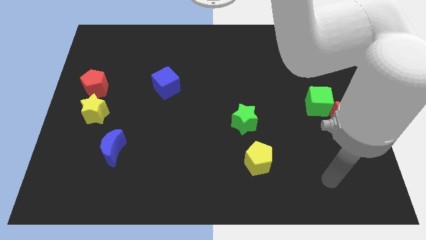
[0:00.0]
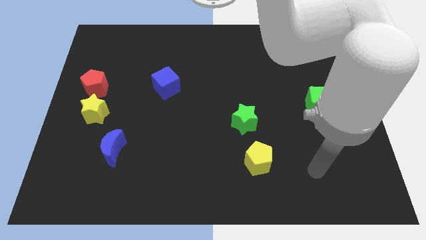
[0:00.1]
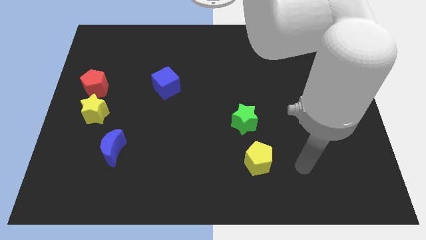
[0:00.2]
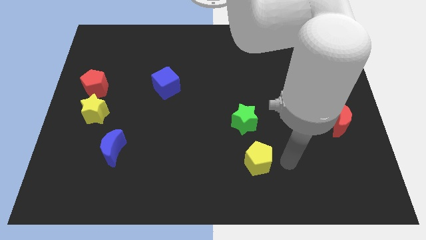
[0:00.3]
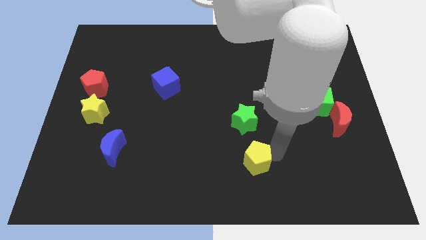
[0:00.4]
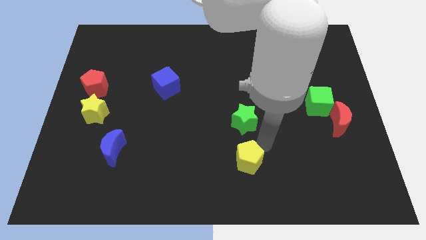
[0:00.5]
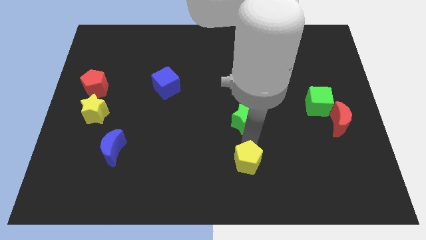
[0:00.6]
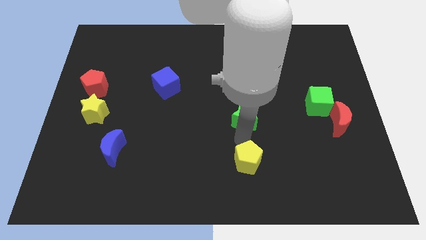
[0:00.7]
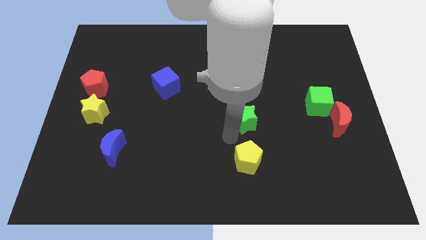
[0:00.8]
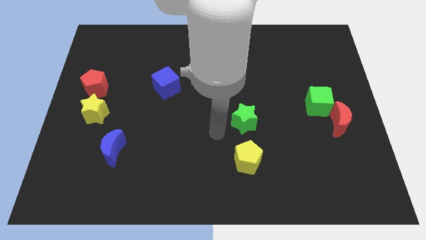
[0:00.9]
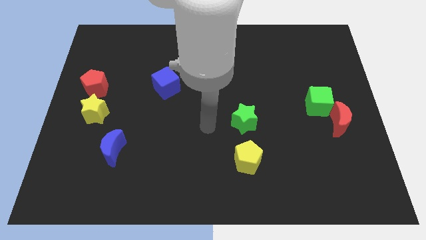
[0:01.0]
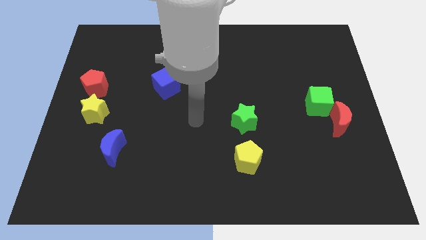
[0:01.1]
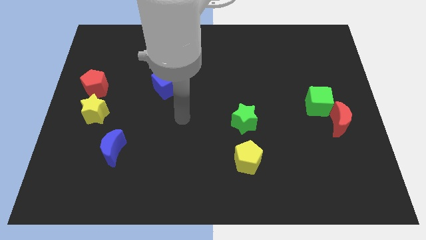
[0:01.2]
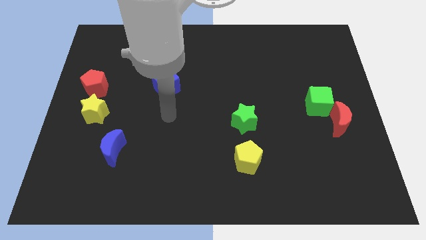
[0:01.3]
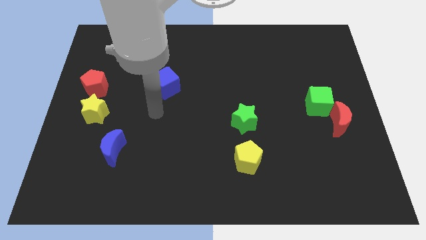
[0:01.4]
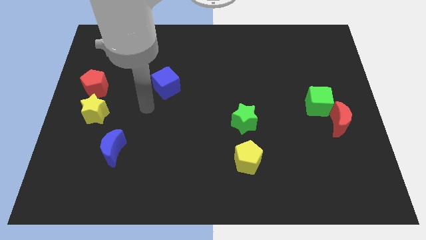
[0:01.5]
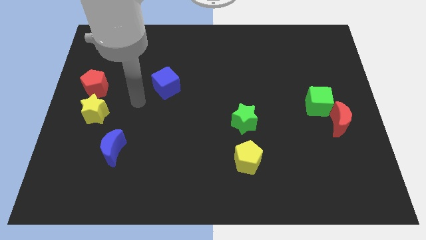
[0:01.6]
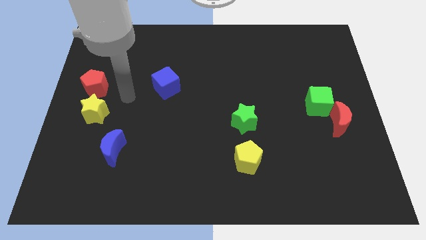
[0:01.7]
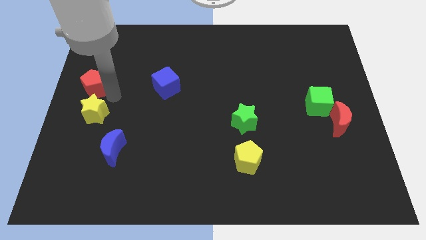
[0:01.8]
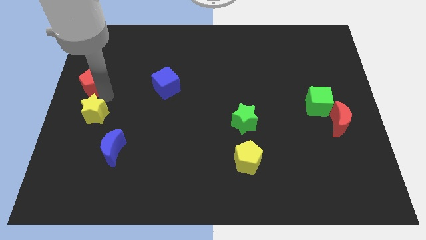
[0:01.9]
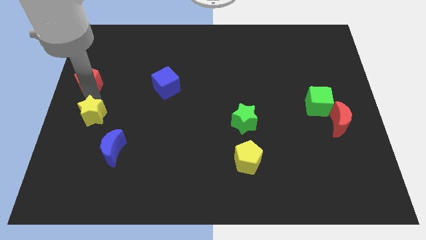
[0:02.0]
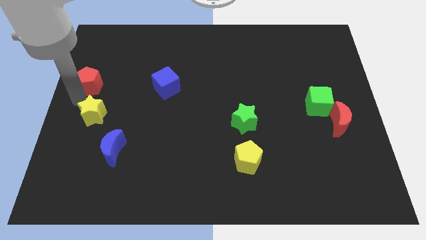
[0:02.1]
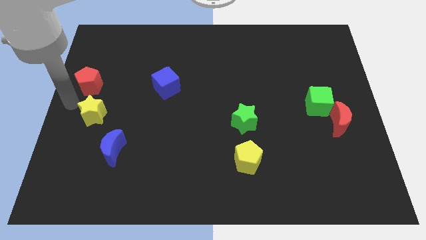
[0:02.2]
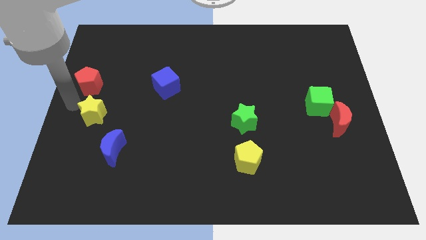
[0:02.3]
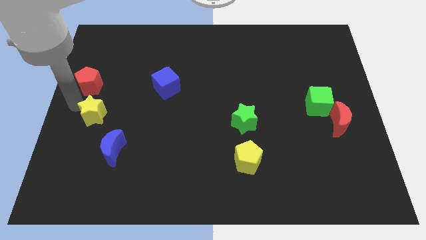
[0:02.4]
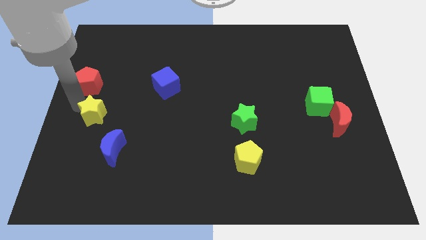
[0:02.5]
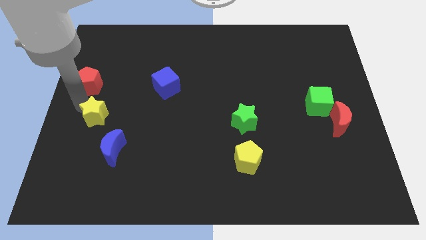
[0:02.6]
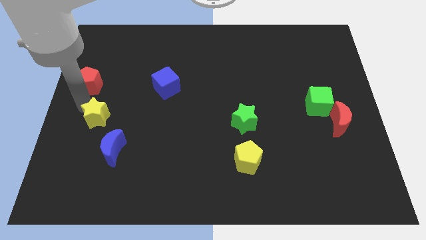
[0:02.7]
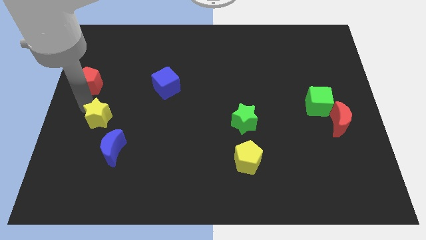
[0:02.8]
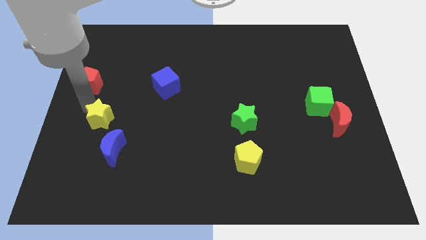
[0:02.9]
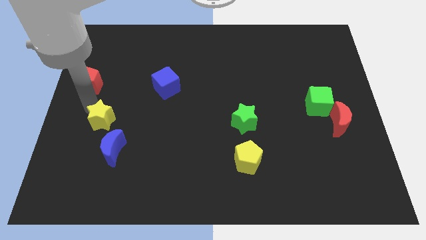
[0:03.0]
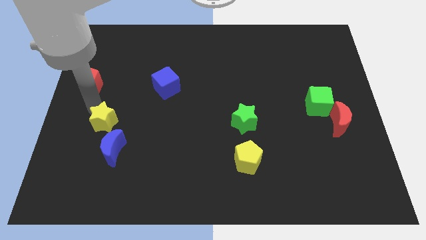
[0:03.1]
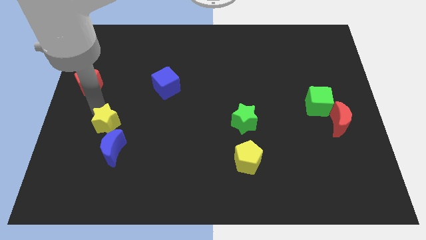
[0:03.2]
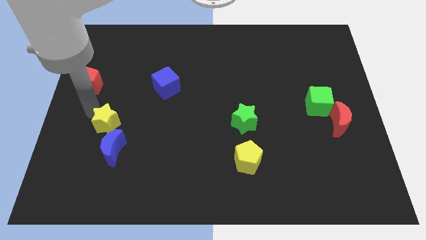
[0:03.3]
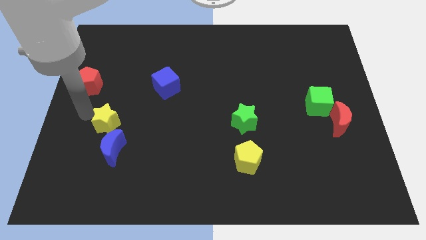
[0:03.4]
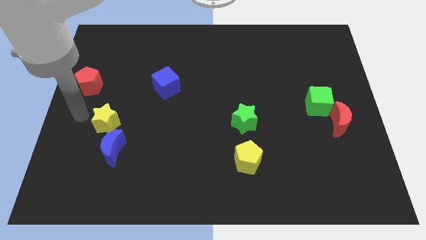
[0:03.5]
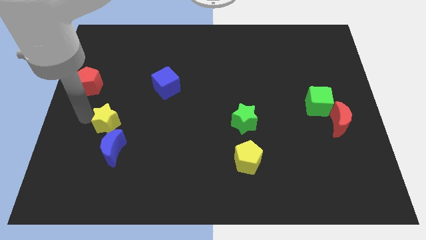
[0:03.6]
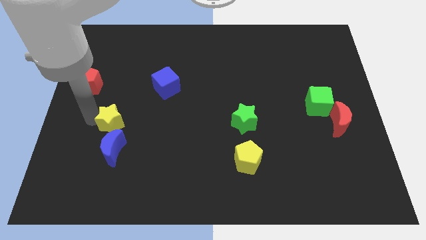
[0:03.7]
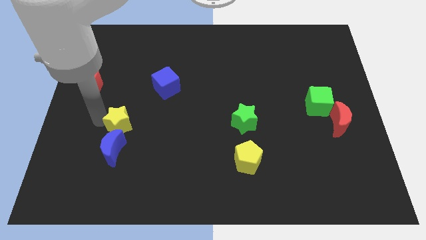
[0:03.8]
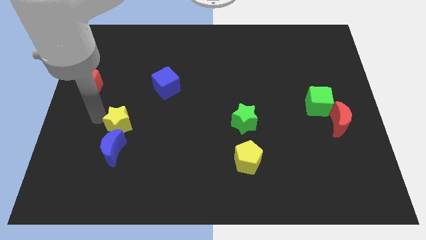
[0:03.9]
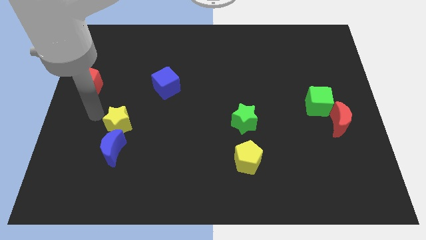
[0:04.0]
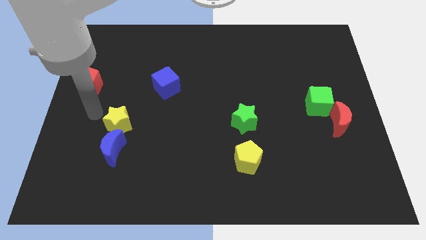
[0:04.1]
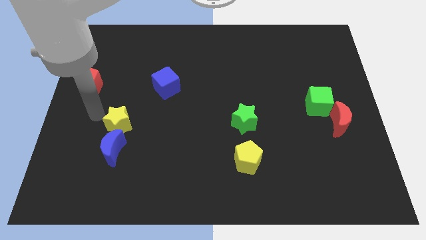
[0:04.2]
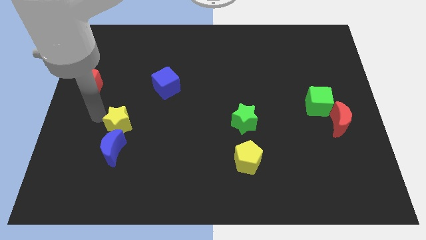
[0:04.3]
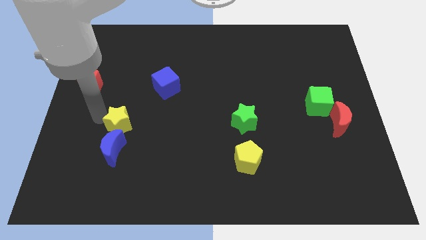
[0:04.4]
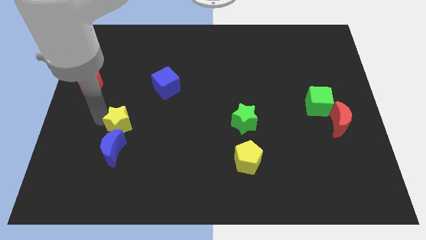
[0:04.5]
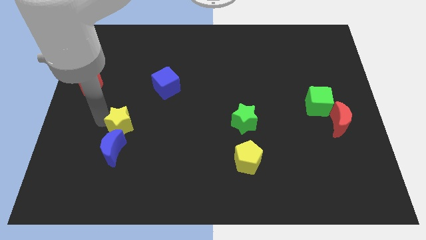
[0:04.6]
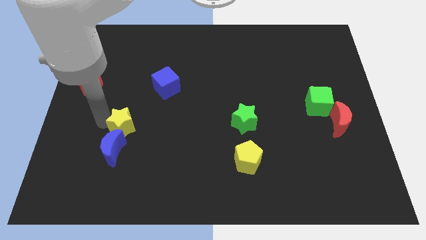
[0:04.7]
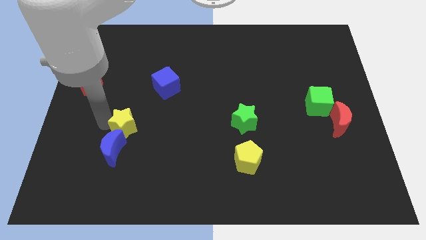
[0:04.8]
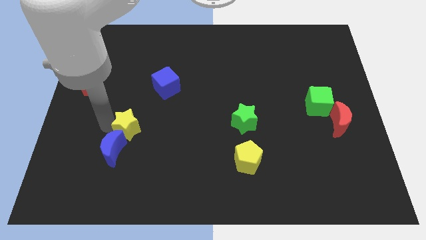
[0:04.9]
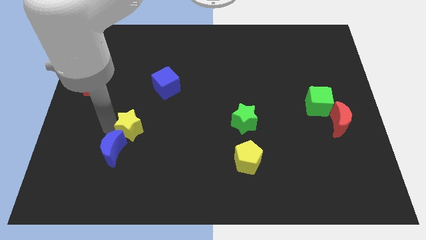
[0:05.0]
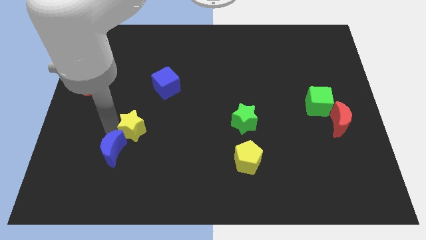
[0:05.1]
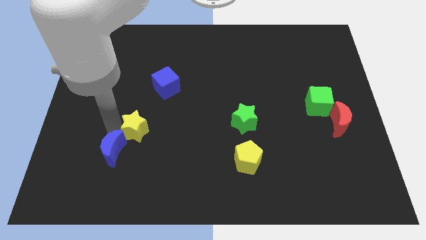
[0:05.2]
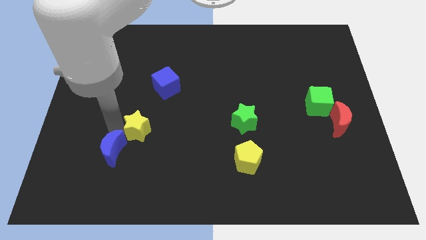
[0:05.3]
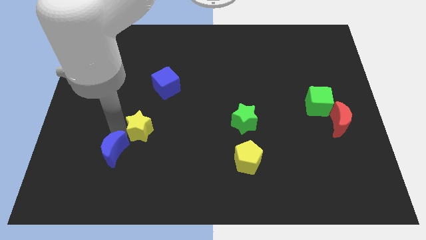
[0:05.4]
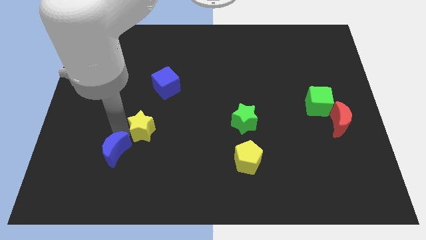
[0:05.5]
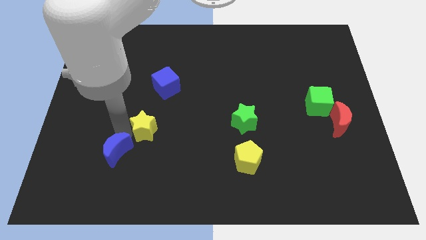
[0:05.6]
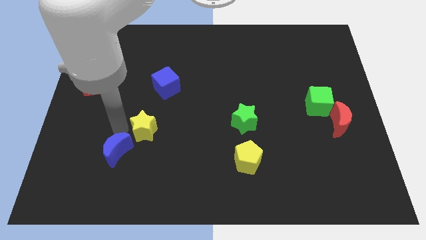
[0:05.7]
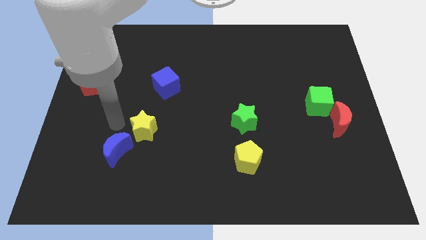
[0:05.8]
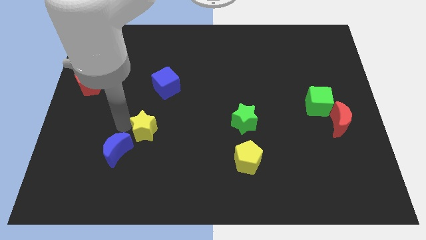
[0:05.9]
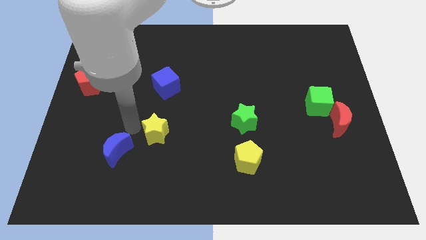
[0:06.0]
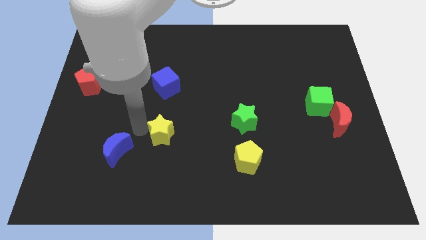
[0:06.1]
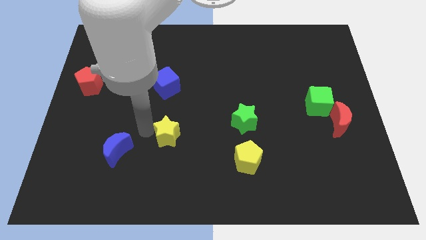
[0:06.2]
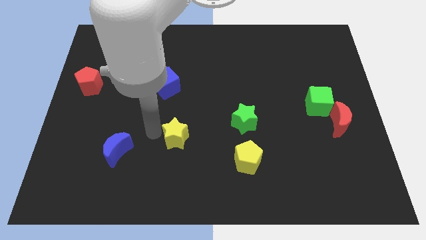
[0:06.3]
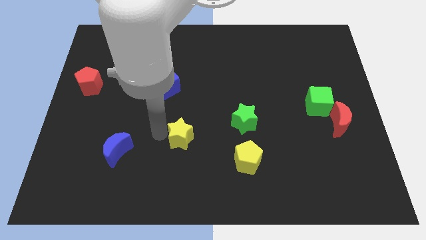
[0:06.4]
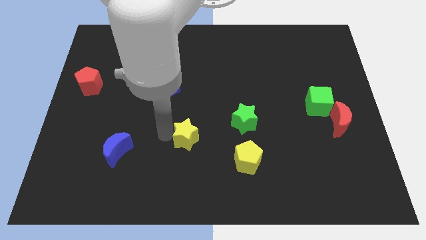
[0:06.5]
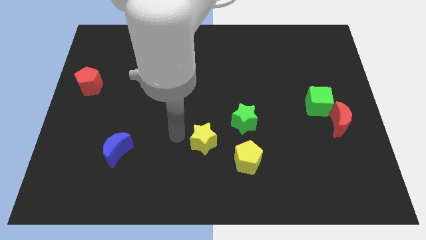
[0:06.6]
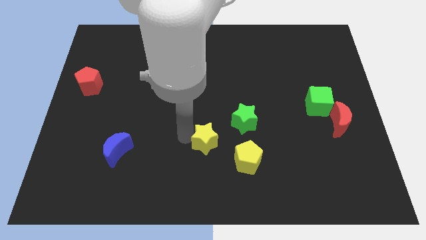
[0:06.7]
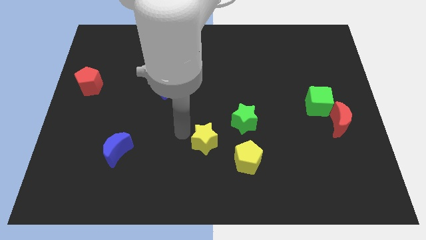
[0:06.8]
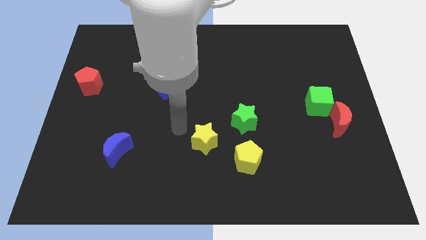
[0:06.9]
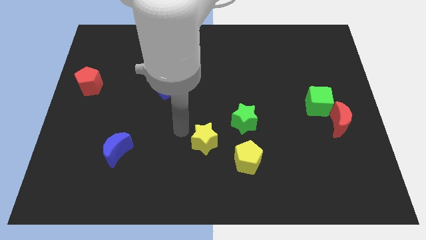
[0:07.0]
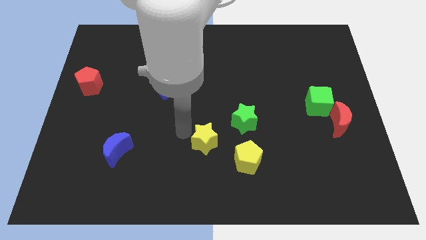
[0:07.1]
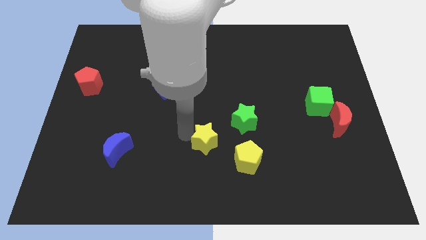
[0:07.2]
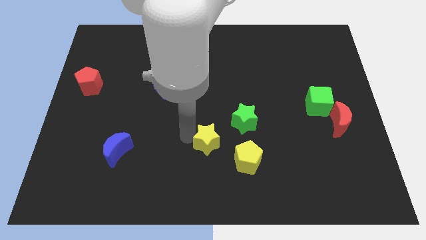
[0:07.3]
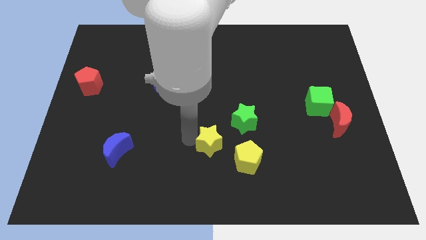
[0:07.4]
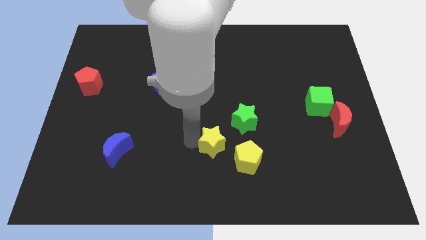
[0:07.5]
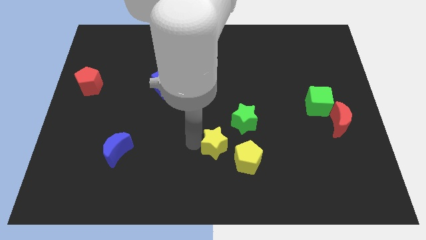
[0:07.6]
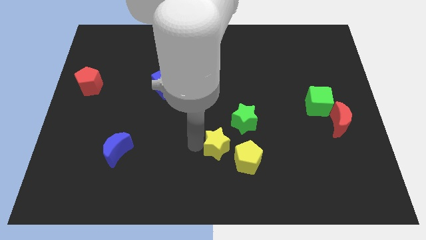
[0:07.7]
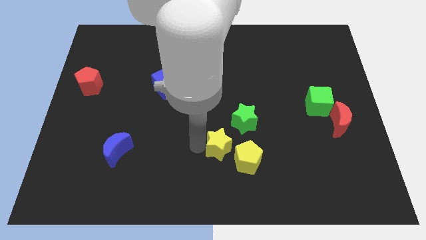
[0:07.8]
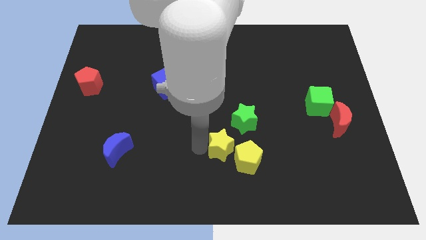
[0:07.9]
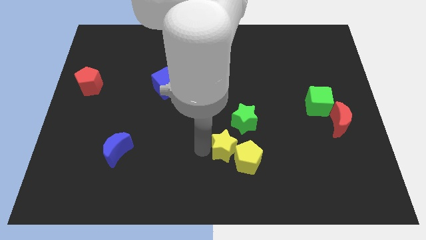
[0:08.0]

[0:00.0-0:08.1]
slide the yellow star towards the yellow pentagon
